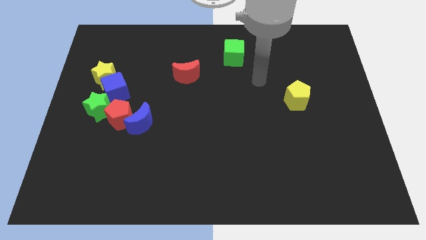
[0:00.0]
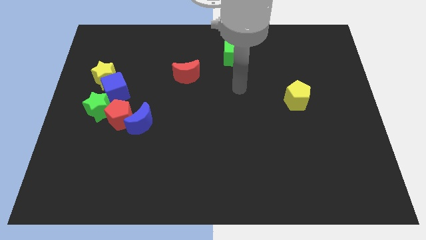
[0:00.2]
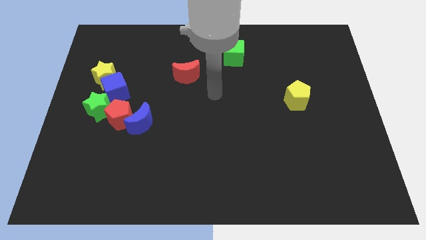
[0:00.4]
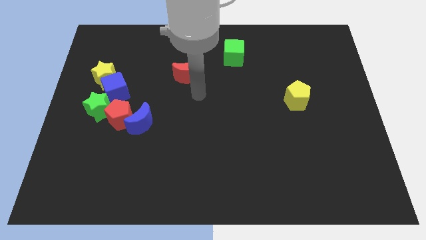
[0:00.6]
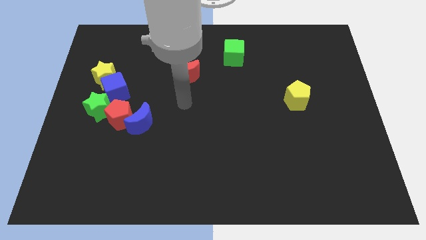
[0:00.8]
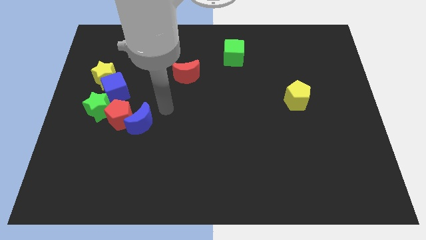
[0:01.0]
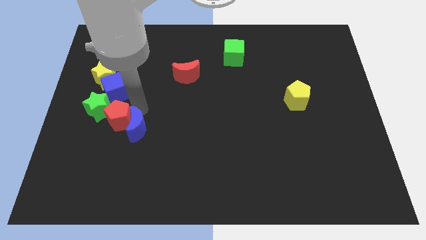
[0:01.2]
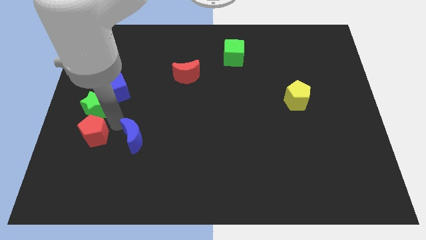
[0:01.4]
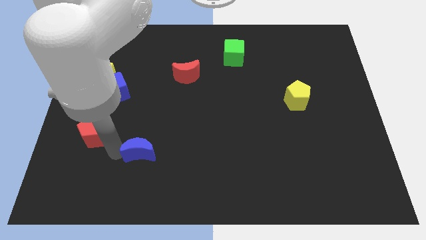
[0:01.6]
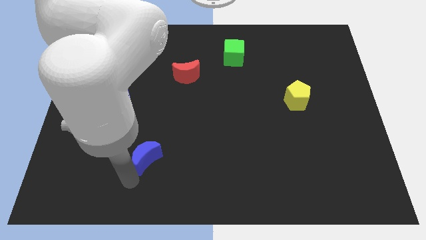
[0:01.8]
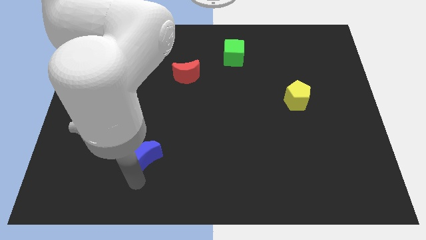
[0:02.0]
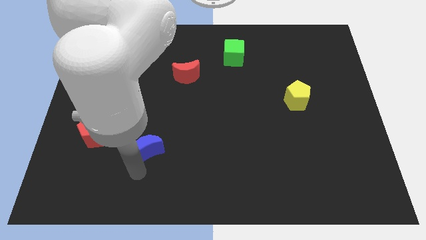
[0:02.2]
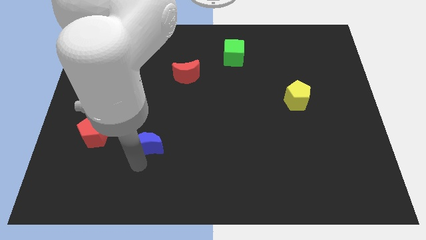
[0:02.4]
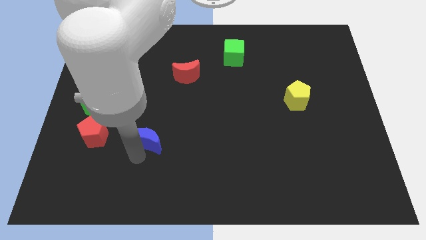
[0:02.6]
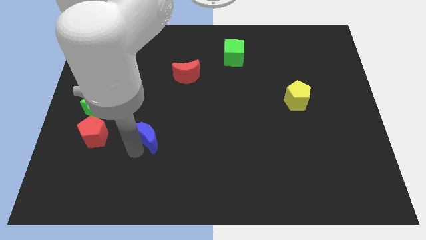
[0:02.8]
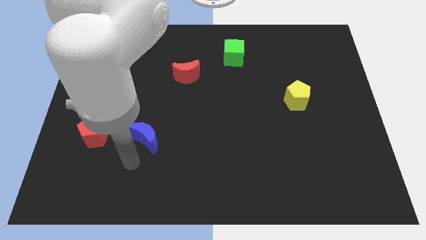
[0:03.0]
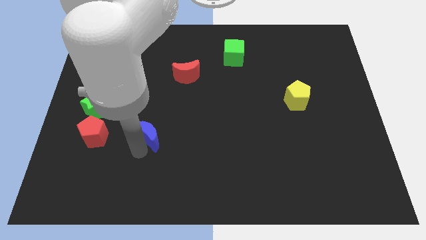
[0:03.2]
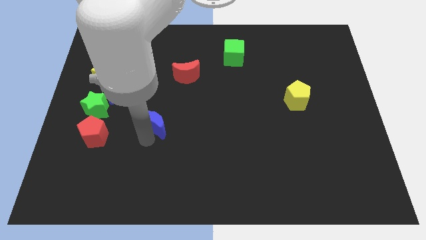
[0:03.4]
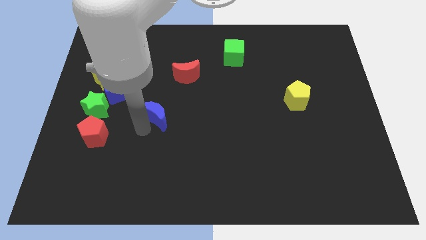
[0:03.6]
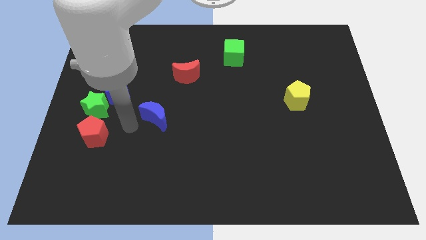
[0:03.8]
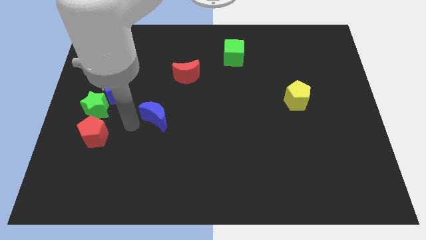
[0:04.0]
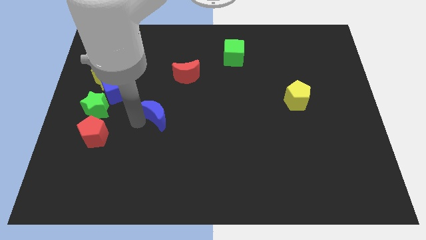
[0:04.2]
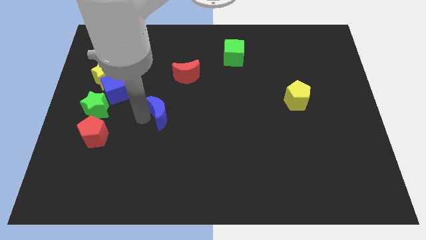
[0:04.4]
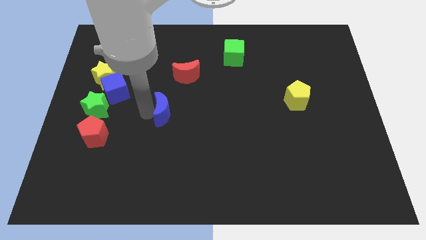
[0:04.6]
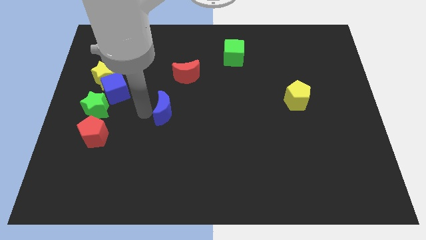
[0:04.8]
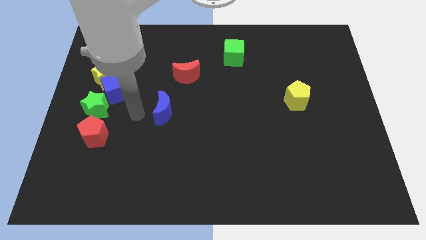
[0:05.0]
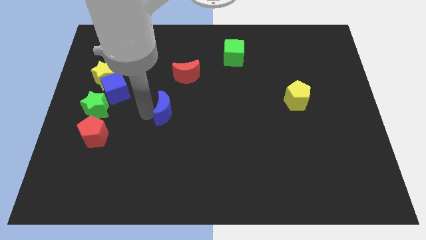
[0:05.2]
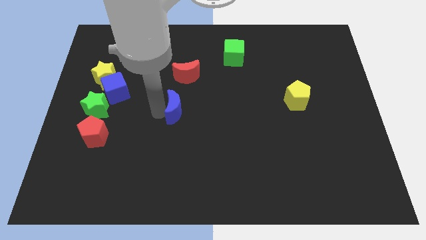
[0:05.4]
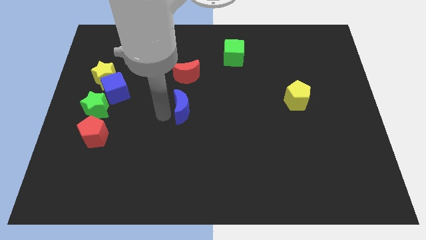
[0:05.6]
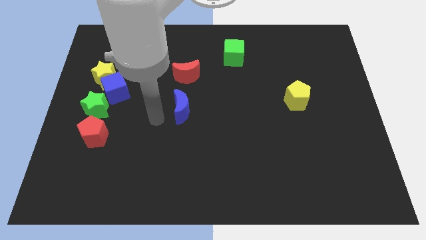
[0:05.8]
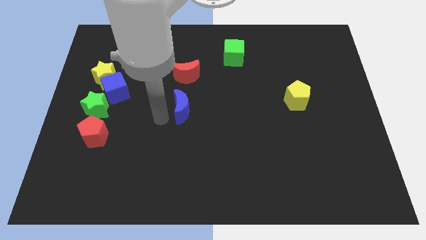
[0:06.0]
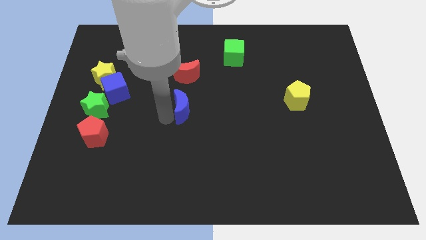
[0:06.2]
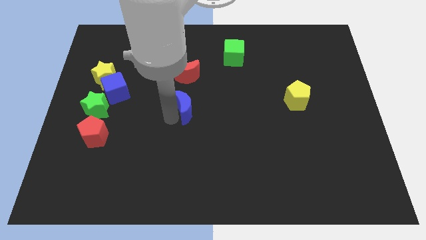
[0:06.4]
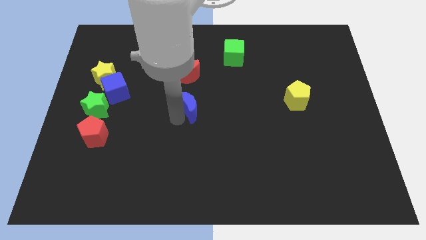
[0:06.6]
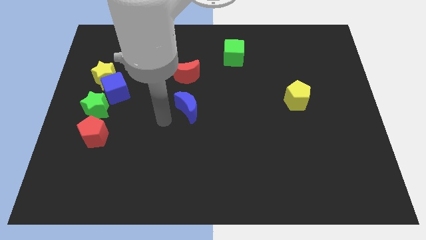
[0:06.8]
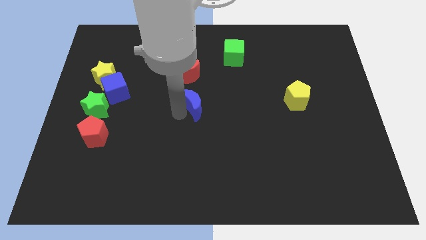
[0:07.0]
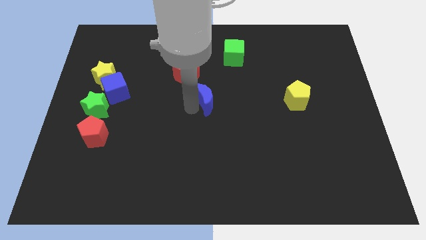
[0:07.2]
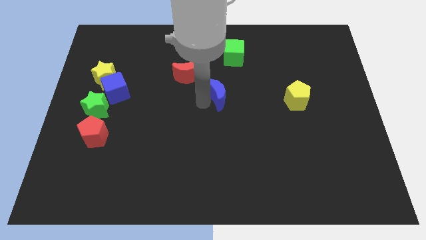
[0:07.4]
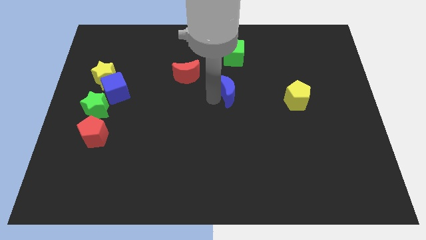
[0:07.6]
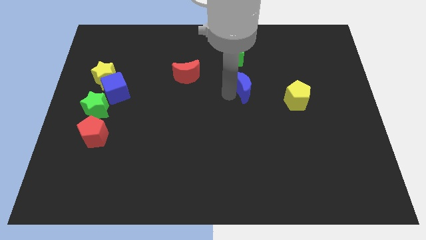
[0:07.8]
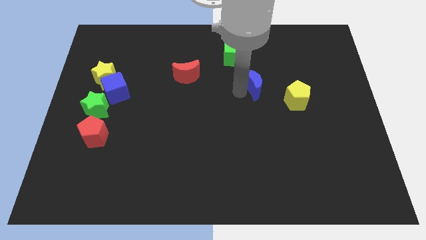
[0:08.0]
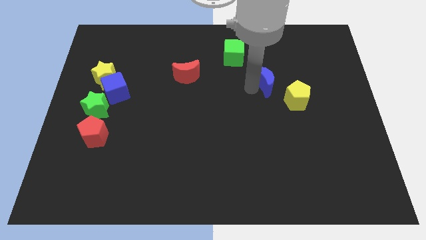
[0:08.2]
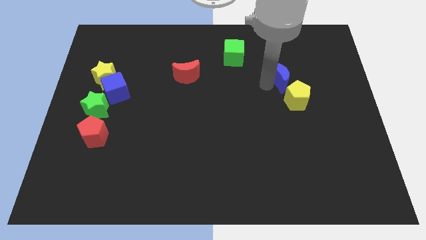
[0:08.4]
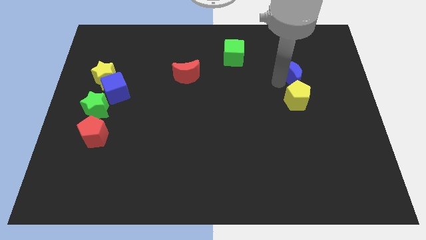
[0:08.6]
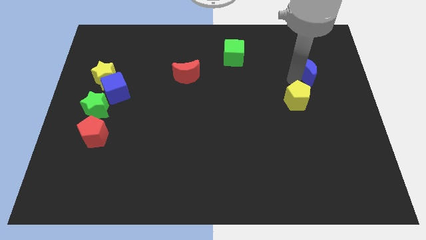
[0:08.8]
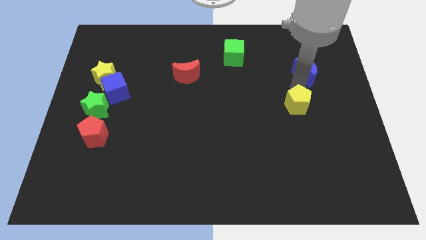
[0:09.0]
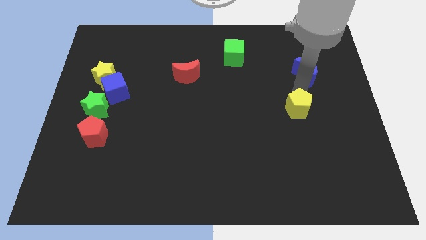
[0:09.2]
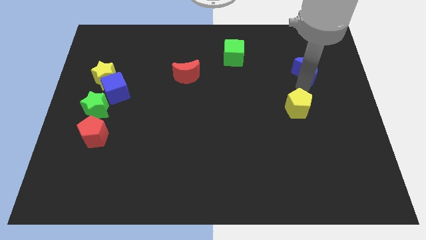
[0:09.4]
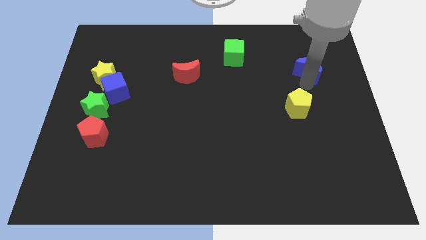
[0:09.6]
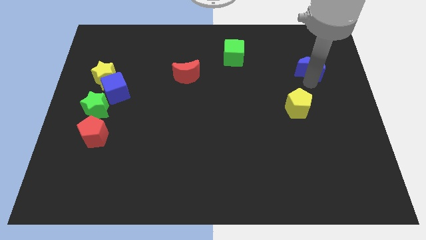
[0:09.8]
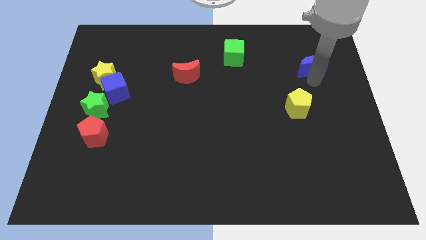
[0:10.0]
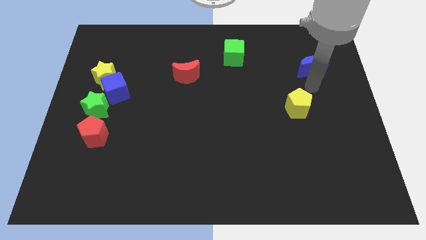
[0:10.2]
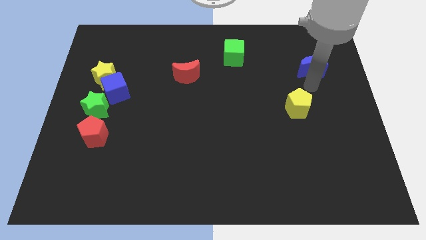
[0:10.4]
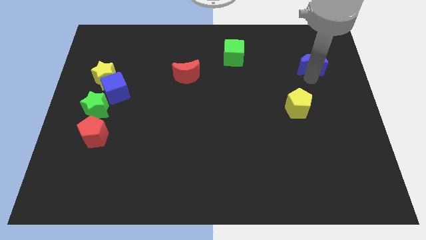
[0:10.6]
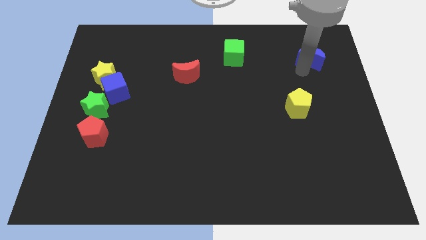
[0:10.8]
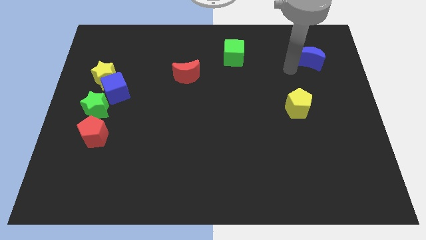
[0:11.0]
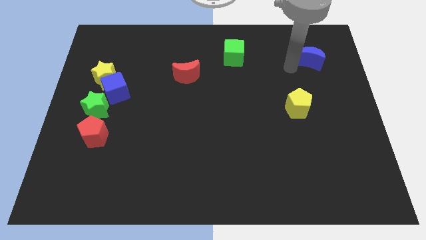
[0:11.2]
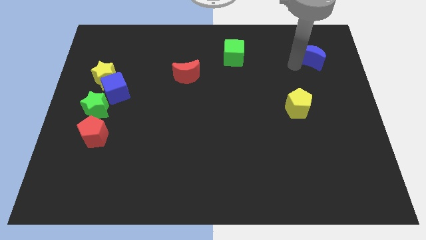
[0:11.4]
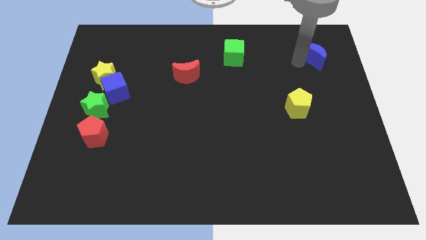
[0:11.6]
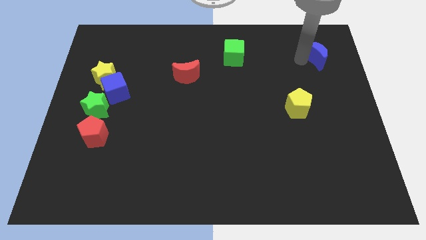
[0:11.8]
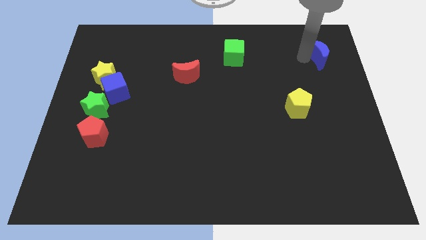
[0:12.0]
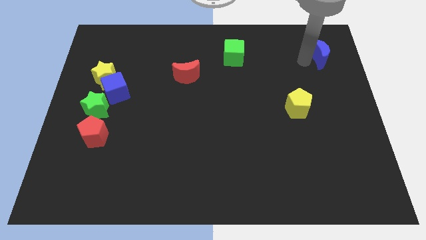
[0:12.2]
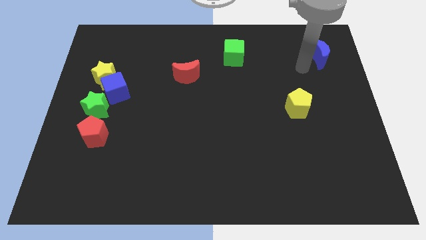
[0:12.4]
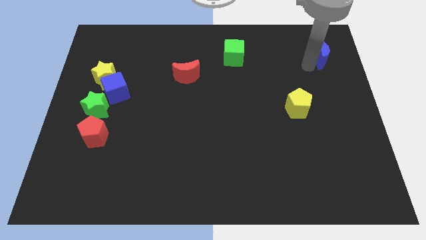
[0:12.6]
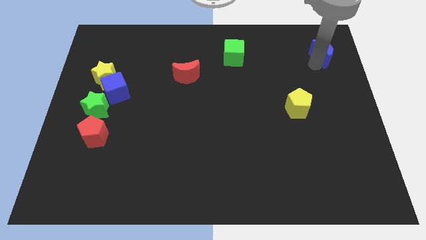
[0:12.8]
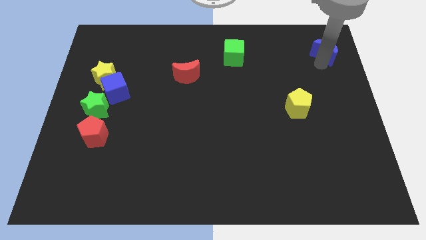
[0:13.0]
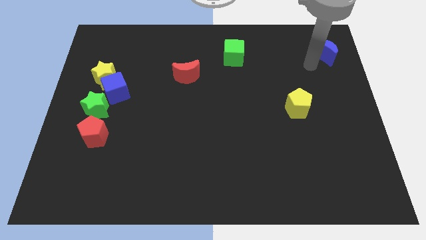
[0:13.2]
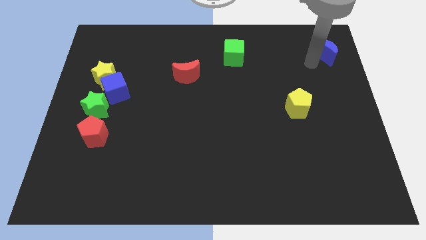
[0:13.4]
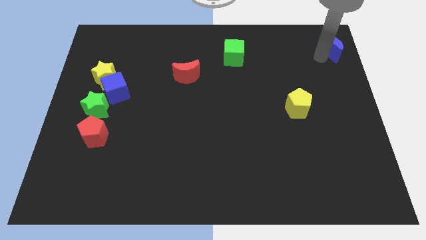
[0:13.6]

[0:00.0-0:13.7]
move the blue moon to the upper right corner
